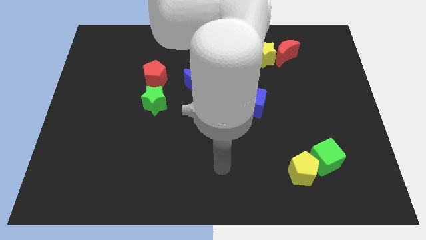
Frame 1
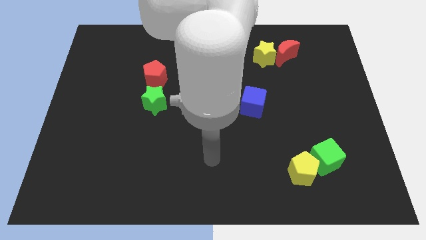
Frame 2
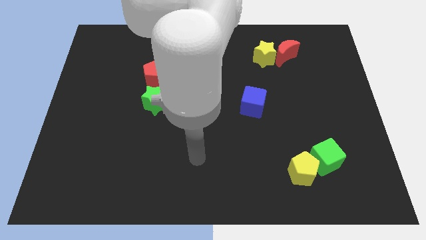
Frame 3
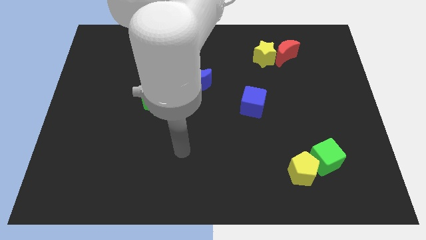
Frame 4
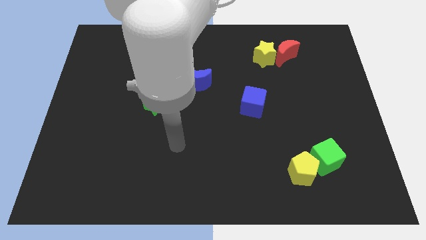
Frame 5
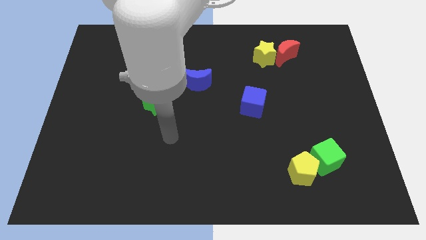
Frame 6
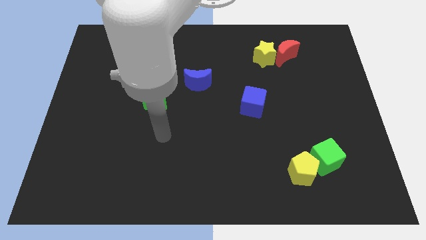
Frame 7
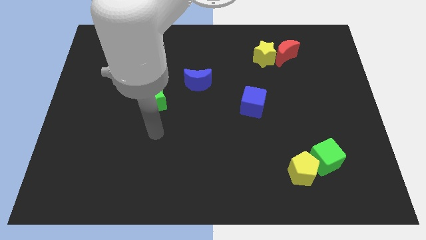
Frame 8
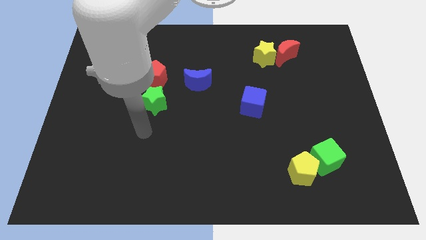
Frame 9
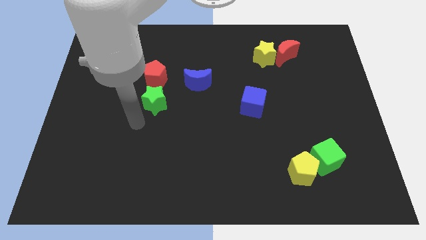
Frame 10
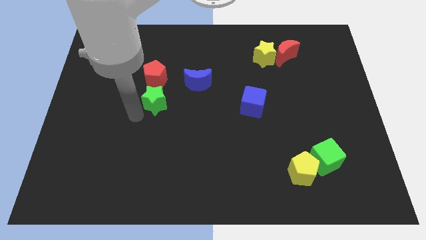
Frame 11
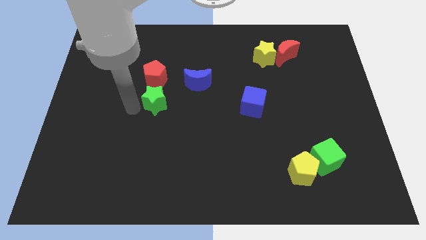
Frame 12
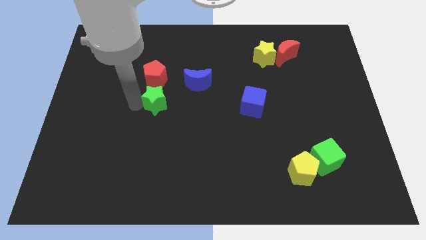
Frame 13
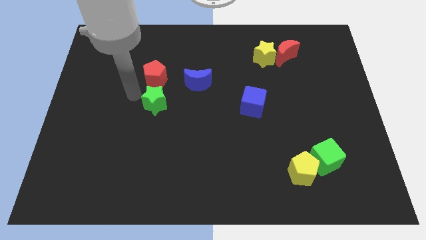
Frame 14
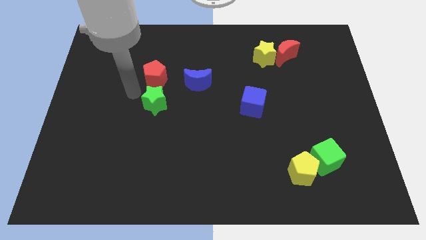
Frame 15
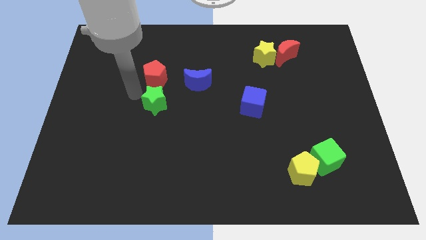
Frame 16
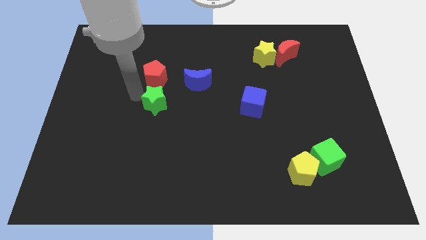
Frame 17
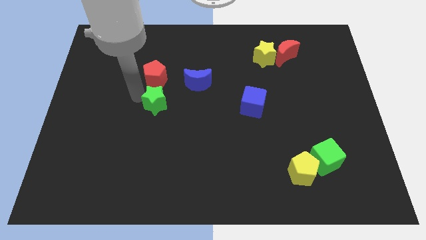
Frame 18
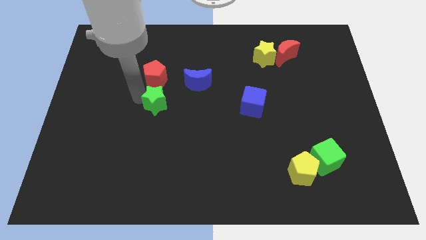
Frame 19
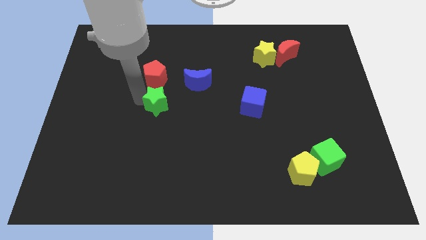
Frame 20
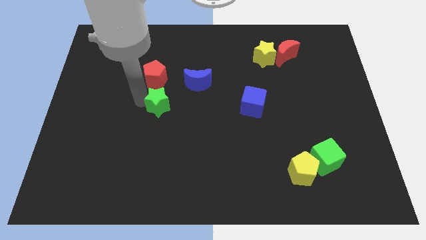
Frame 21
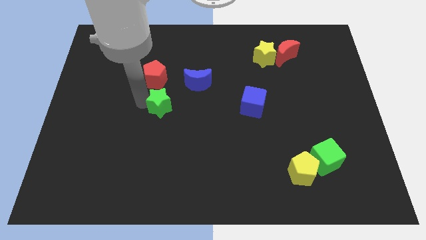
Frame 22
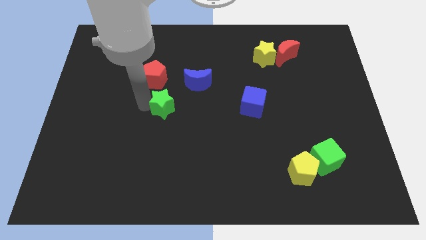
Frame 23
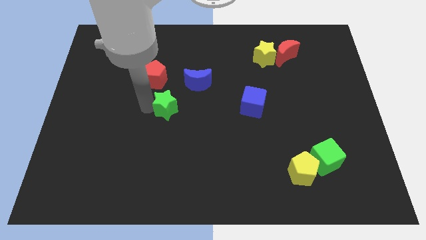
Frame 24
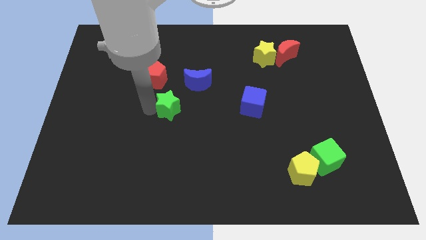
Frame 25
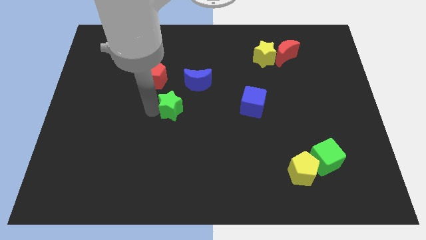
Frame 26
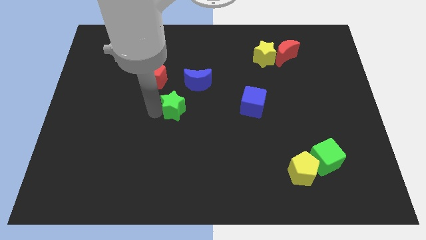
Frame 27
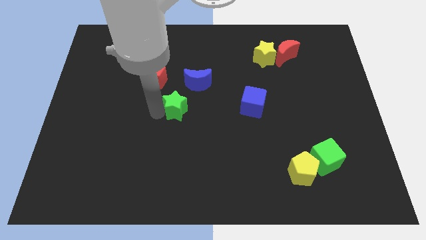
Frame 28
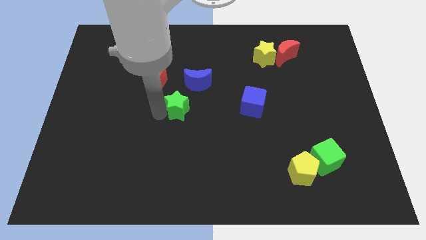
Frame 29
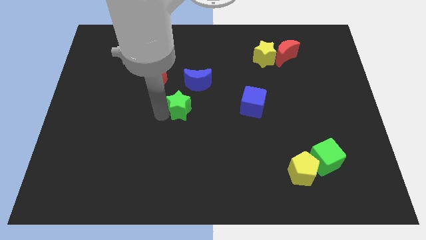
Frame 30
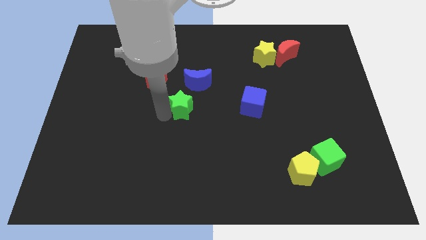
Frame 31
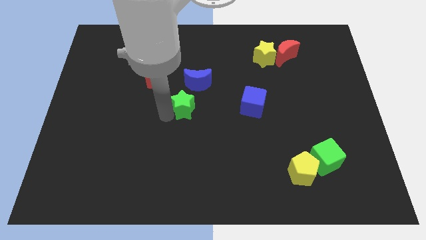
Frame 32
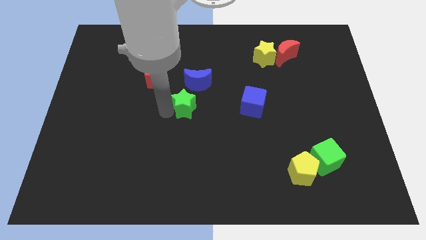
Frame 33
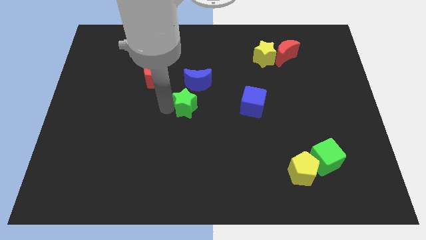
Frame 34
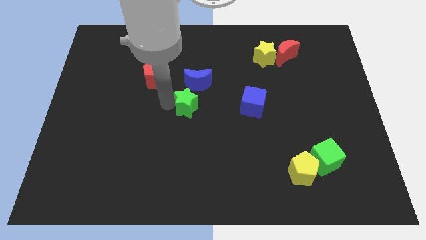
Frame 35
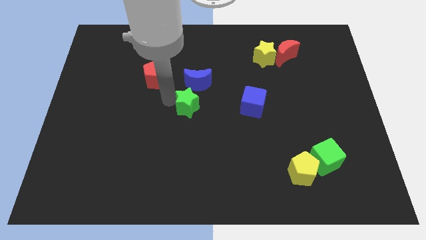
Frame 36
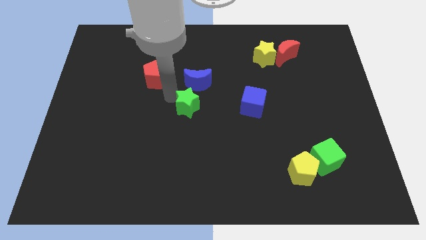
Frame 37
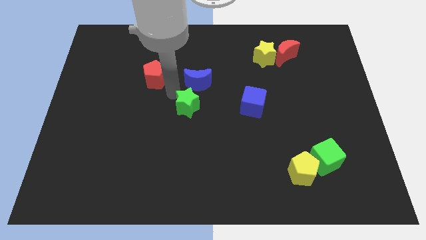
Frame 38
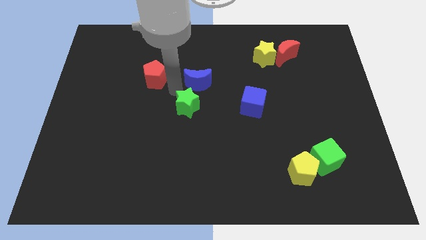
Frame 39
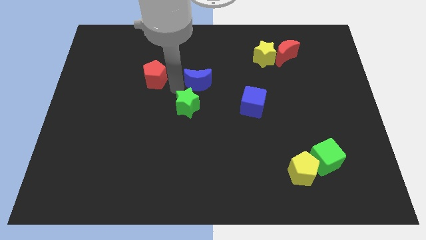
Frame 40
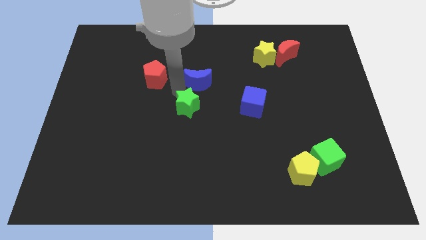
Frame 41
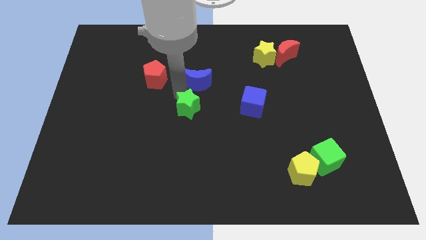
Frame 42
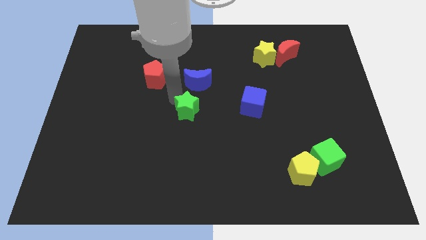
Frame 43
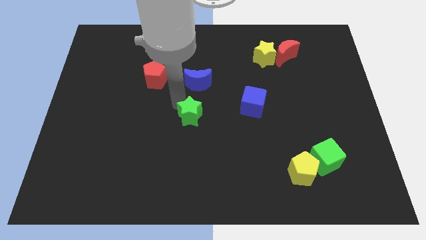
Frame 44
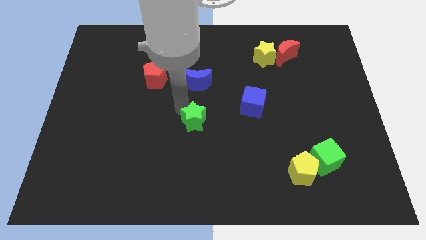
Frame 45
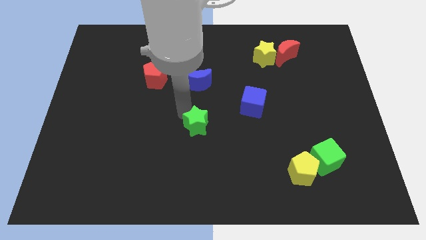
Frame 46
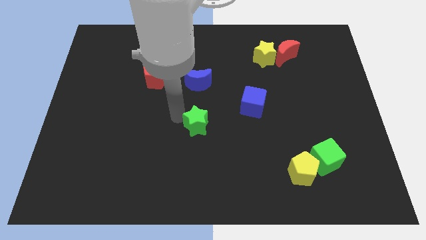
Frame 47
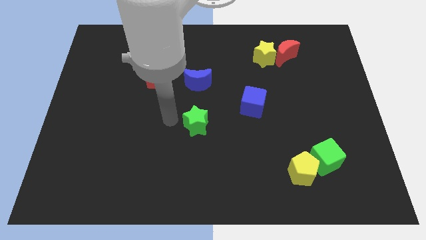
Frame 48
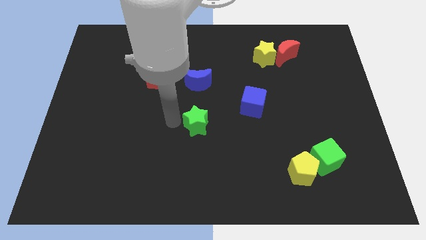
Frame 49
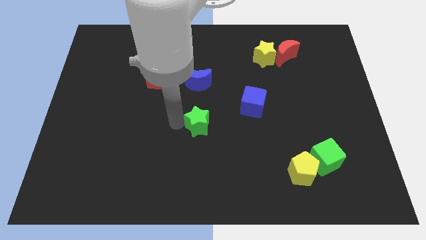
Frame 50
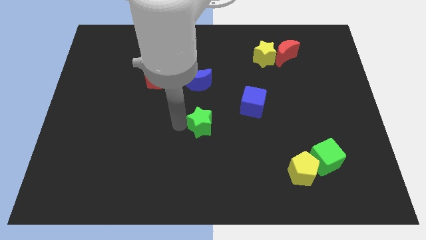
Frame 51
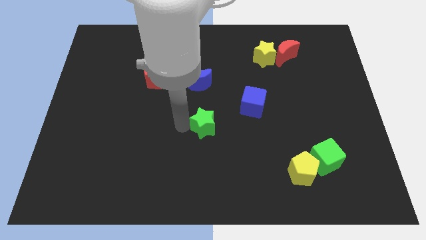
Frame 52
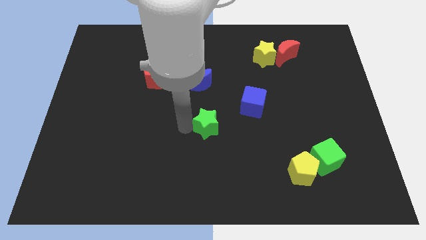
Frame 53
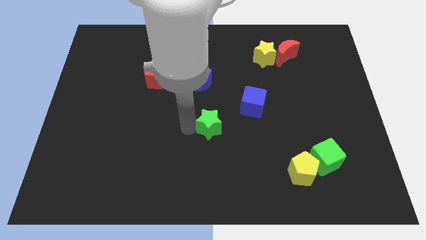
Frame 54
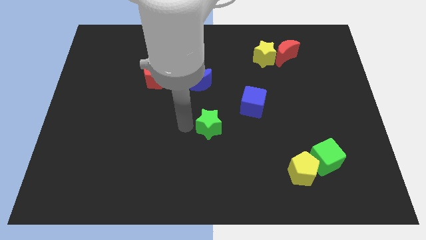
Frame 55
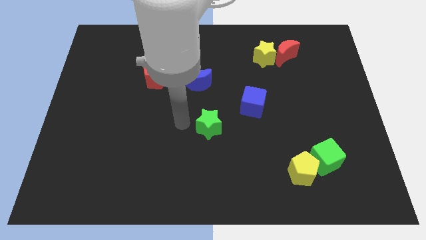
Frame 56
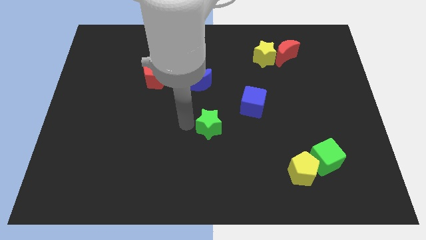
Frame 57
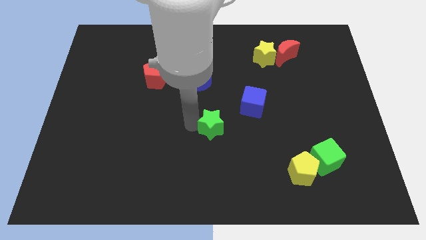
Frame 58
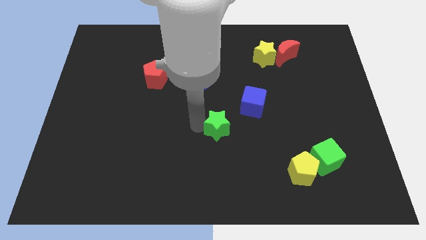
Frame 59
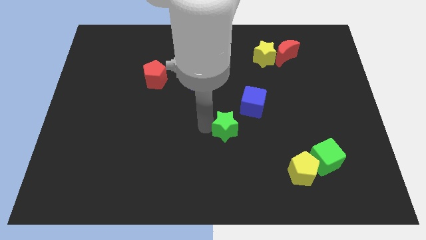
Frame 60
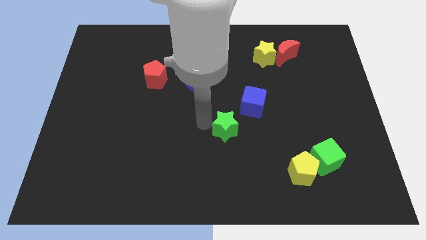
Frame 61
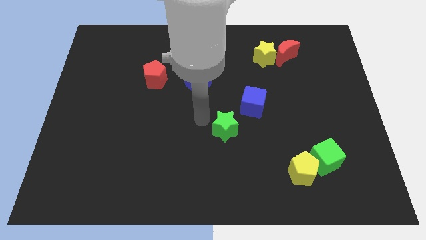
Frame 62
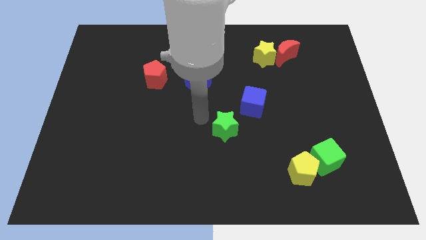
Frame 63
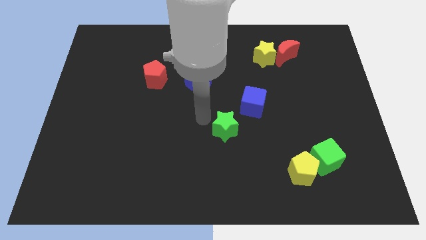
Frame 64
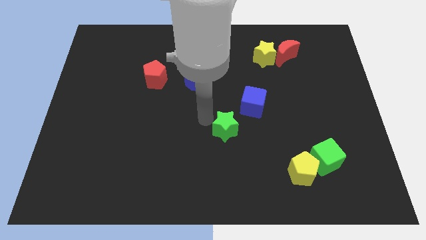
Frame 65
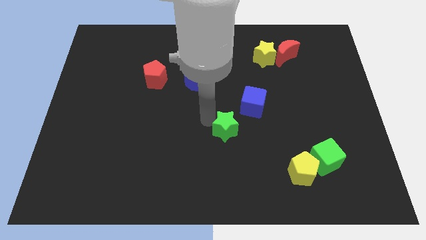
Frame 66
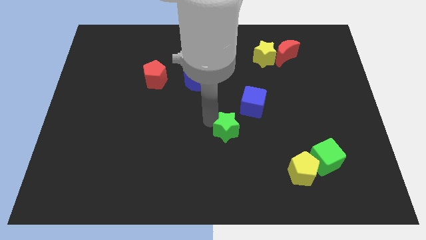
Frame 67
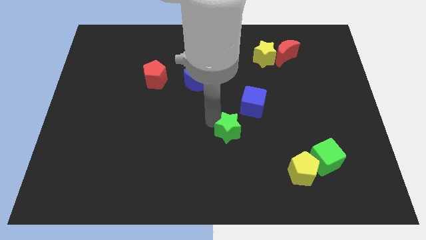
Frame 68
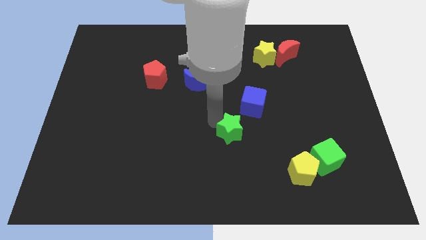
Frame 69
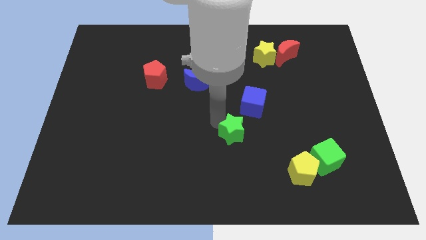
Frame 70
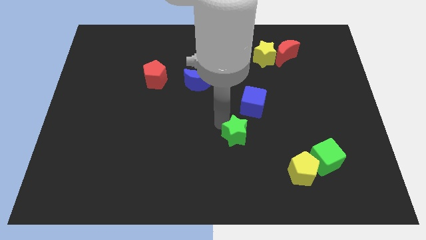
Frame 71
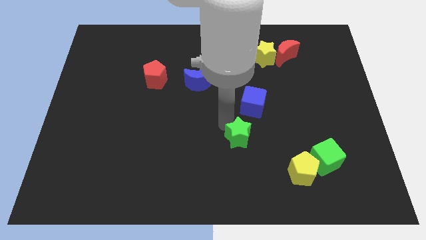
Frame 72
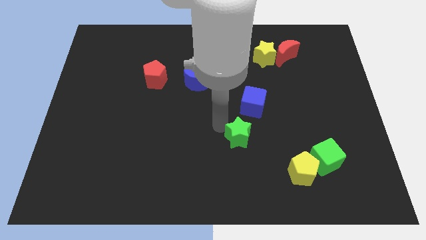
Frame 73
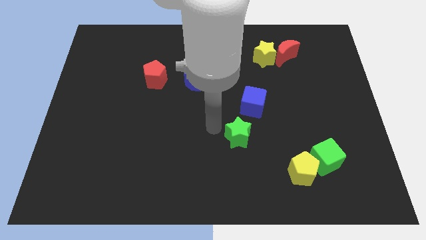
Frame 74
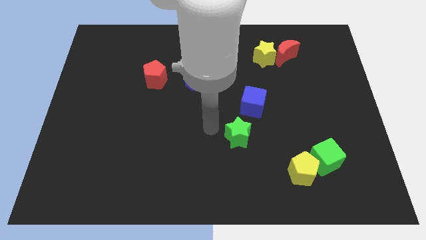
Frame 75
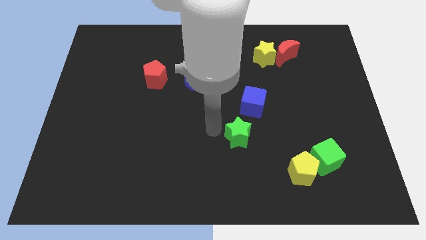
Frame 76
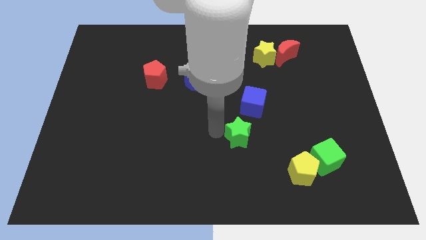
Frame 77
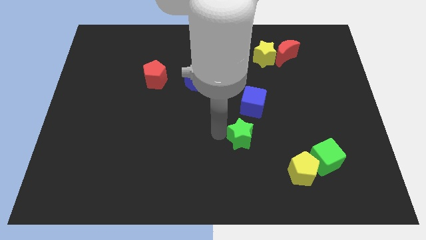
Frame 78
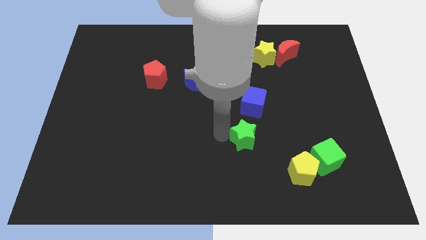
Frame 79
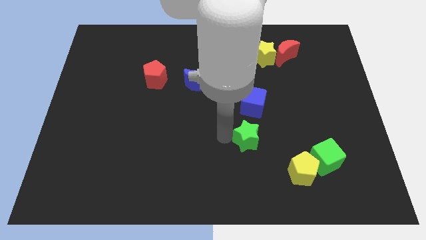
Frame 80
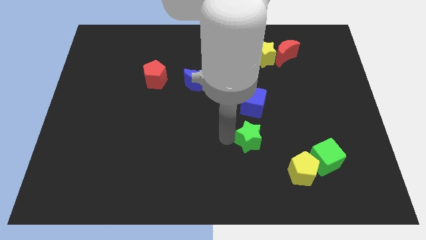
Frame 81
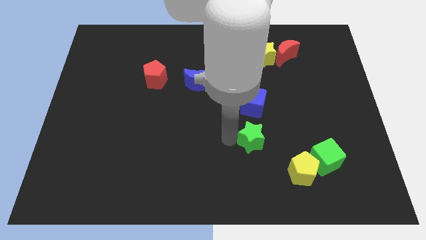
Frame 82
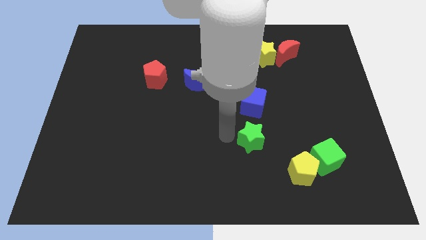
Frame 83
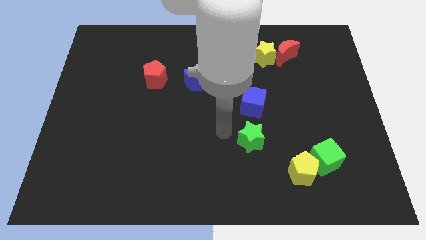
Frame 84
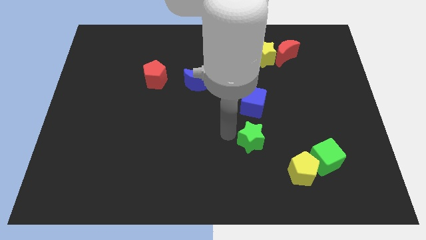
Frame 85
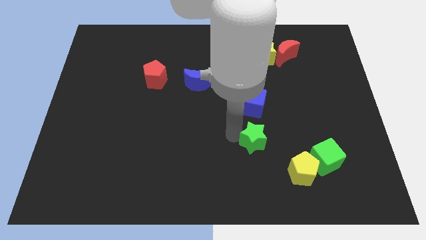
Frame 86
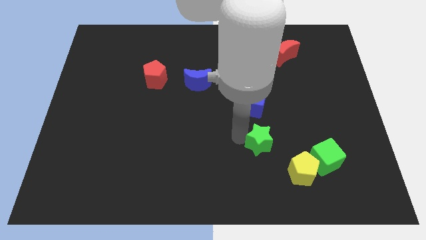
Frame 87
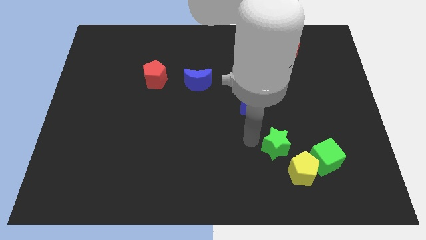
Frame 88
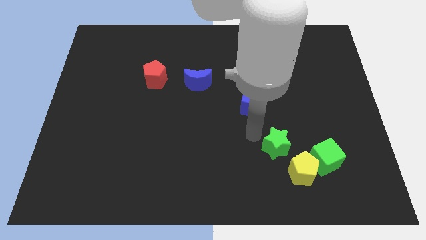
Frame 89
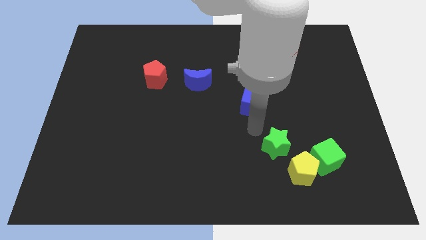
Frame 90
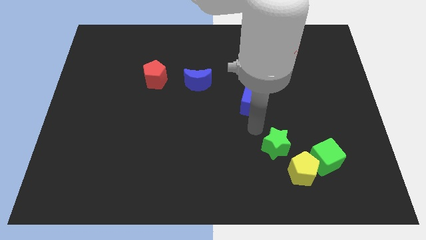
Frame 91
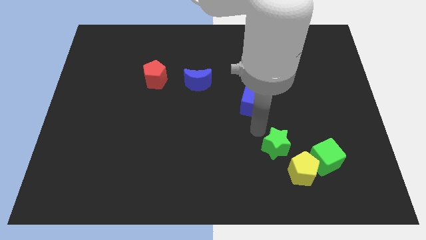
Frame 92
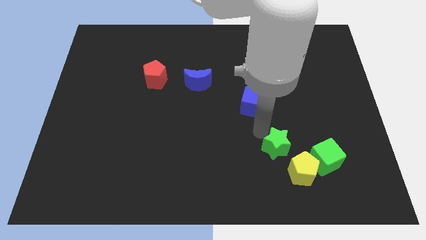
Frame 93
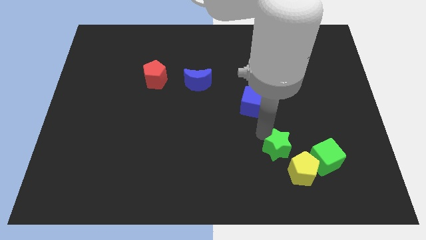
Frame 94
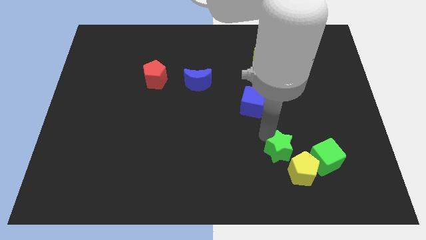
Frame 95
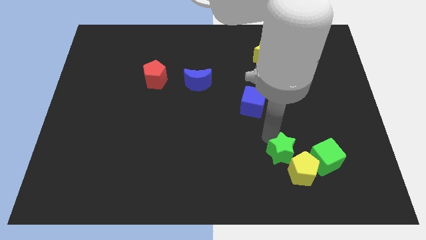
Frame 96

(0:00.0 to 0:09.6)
move the green star to the yellow pentagon
